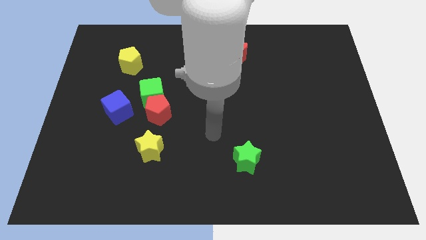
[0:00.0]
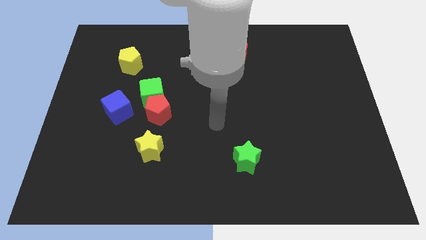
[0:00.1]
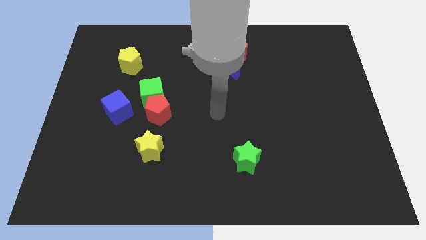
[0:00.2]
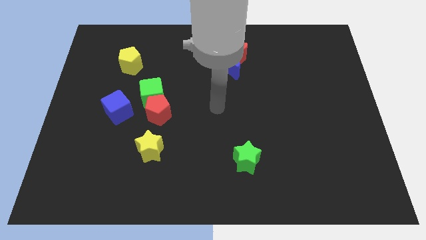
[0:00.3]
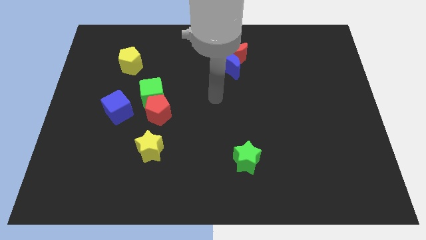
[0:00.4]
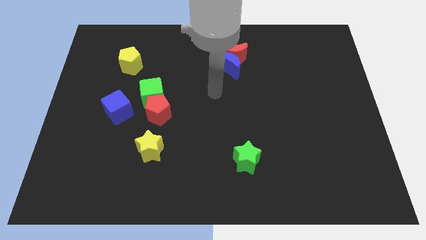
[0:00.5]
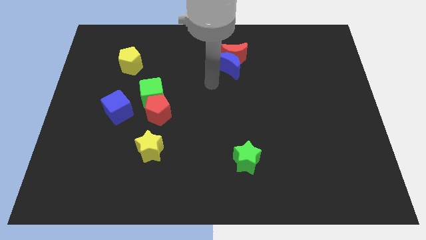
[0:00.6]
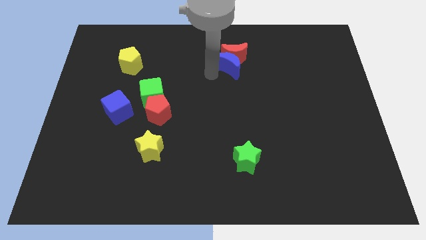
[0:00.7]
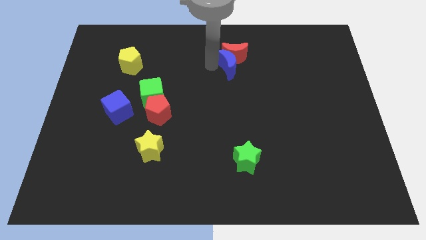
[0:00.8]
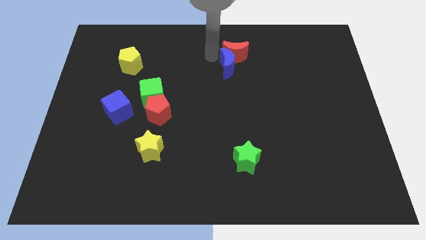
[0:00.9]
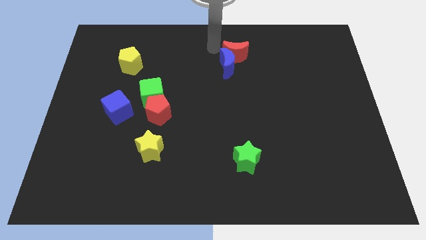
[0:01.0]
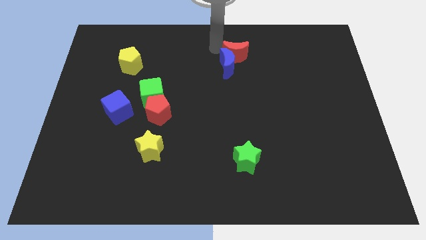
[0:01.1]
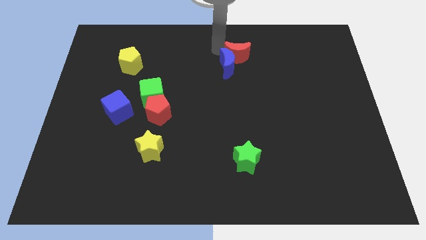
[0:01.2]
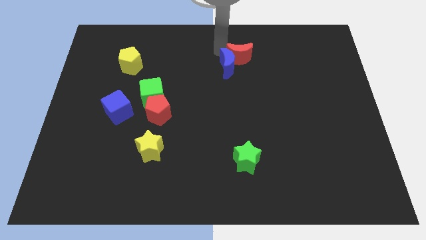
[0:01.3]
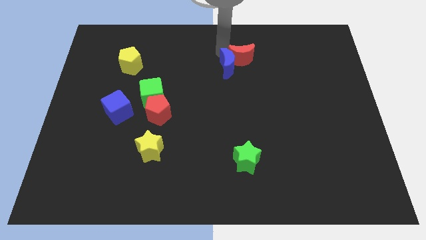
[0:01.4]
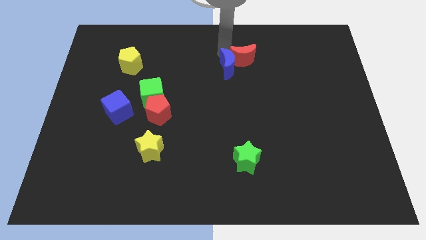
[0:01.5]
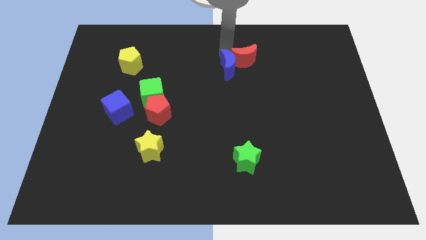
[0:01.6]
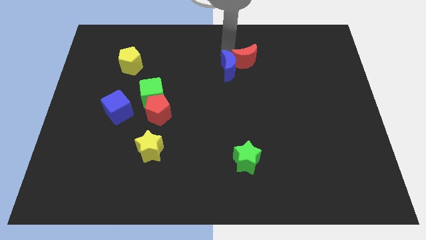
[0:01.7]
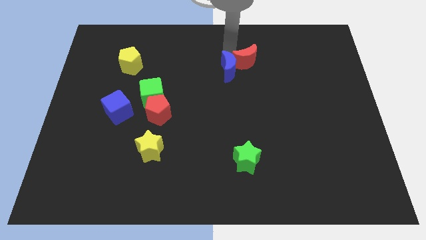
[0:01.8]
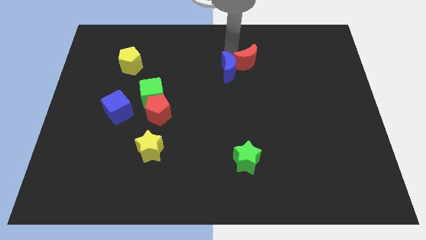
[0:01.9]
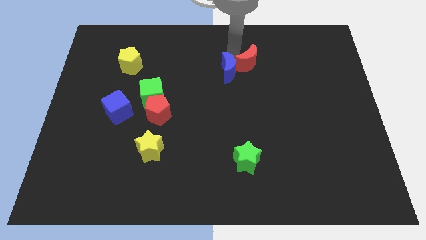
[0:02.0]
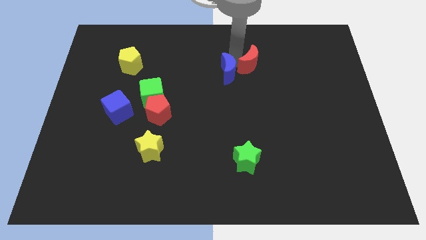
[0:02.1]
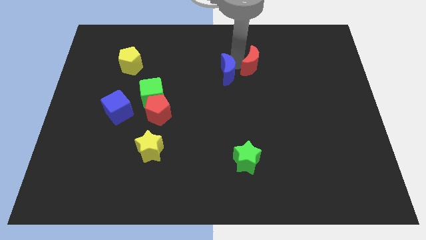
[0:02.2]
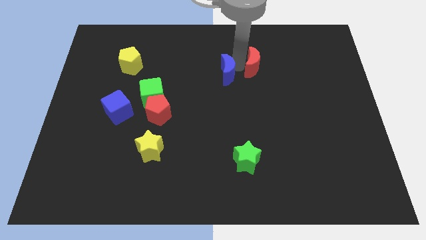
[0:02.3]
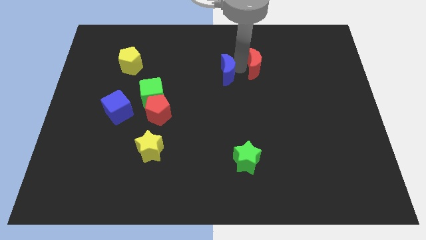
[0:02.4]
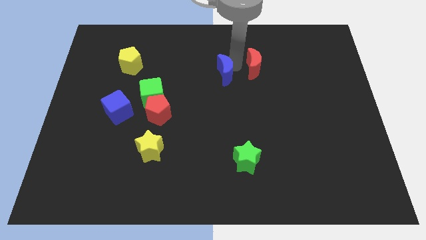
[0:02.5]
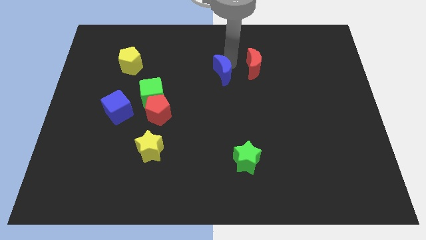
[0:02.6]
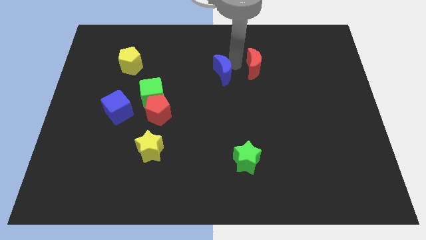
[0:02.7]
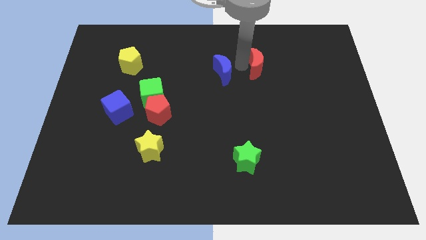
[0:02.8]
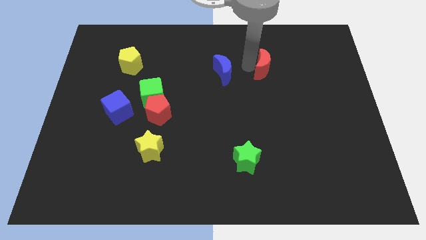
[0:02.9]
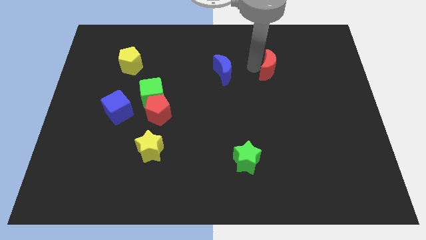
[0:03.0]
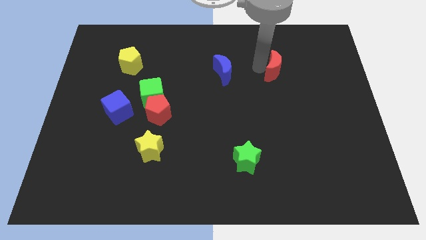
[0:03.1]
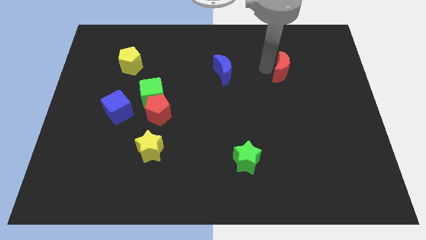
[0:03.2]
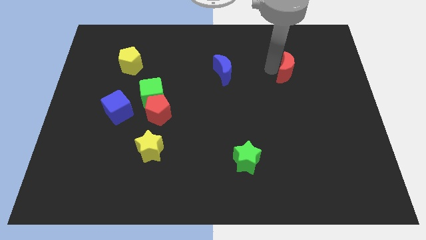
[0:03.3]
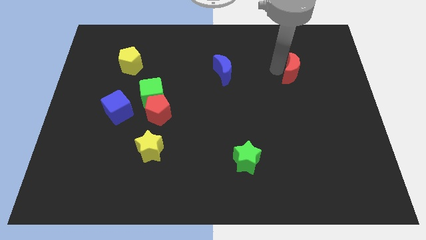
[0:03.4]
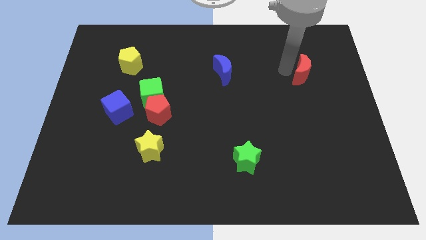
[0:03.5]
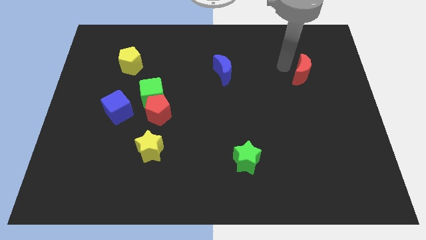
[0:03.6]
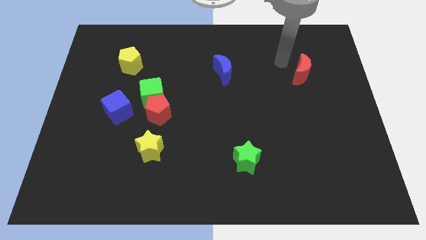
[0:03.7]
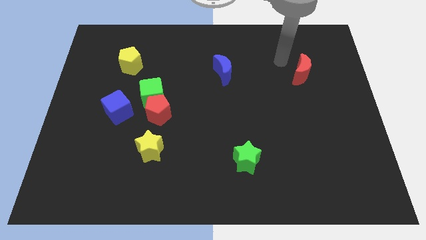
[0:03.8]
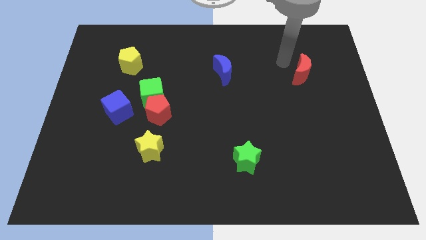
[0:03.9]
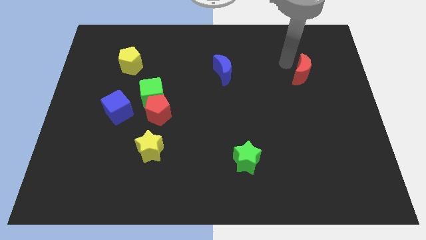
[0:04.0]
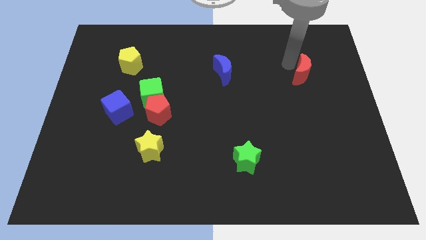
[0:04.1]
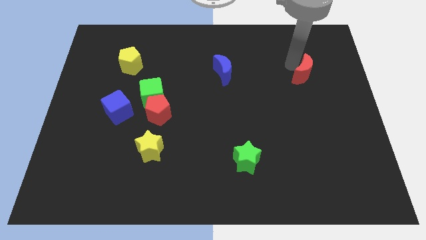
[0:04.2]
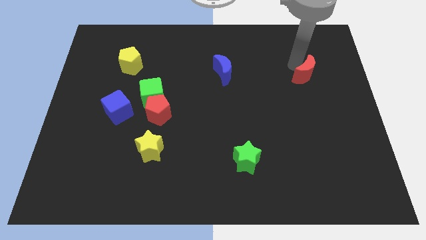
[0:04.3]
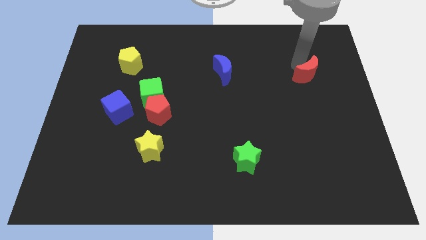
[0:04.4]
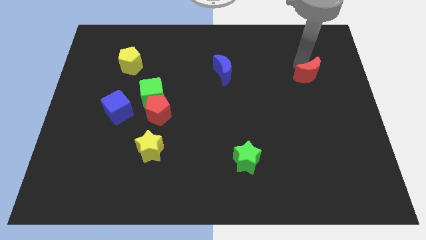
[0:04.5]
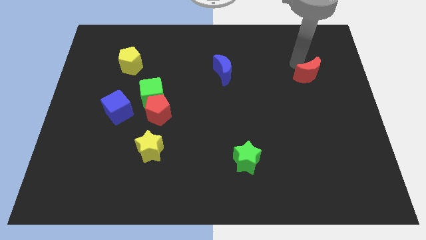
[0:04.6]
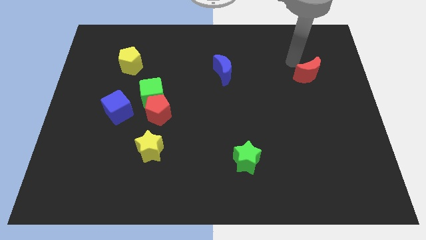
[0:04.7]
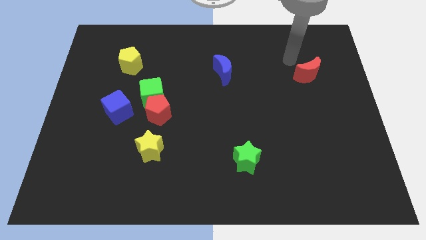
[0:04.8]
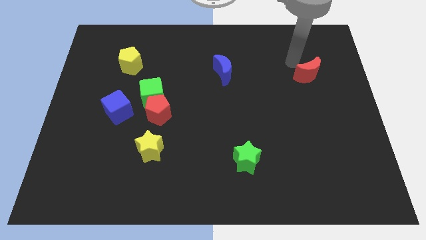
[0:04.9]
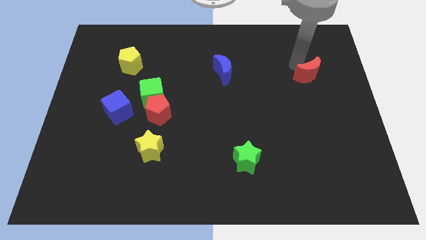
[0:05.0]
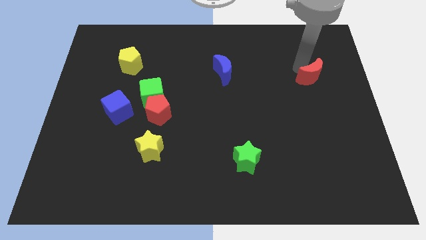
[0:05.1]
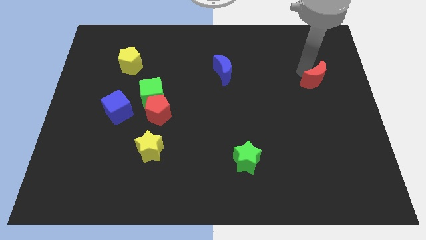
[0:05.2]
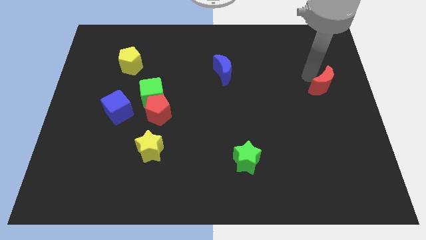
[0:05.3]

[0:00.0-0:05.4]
put the red moon to the right side

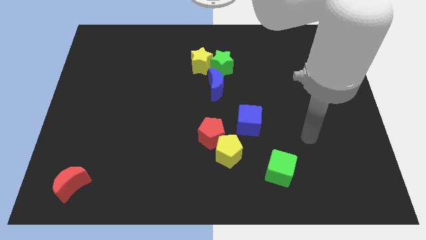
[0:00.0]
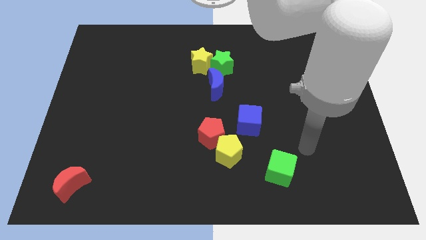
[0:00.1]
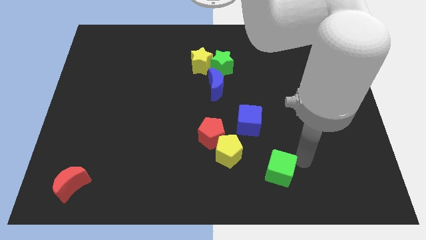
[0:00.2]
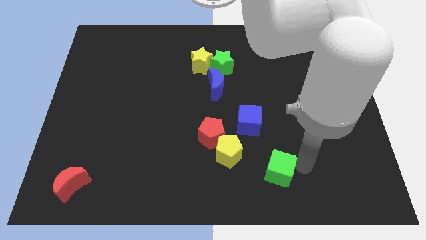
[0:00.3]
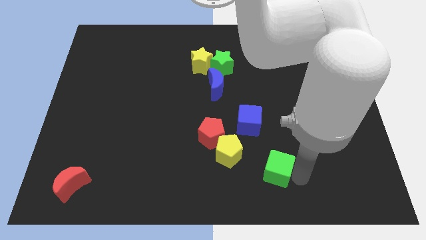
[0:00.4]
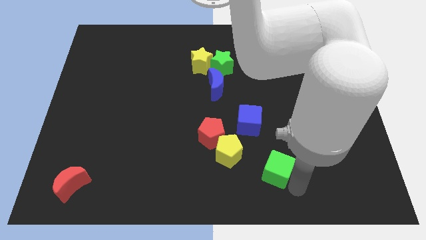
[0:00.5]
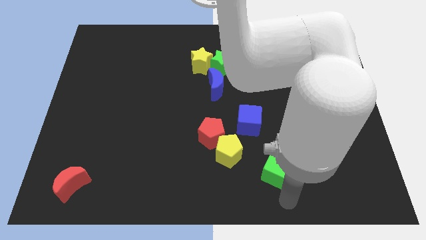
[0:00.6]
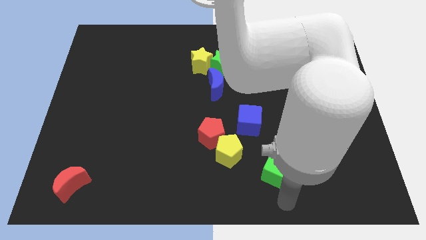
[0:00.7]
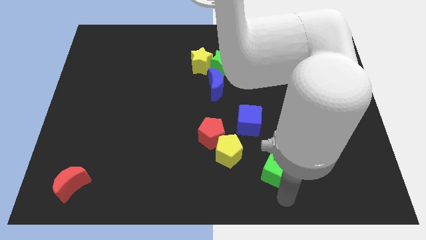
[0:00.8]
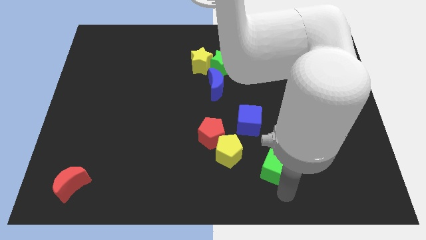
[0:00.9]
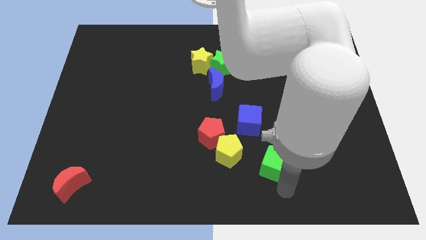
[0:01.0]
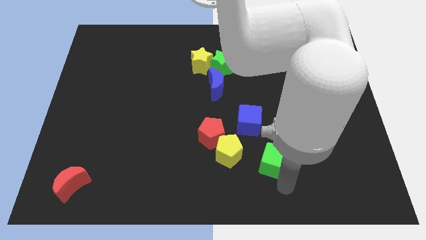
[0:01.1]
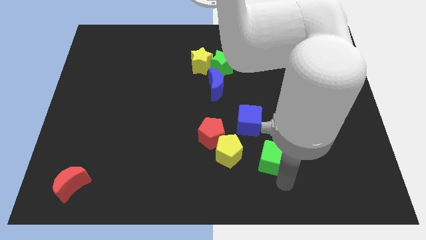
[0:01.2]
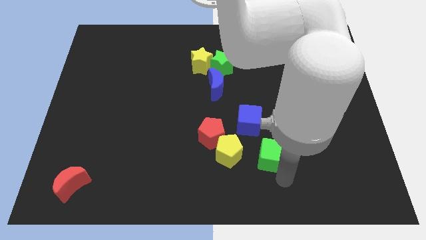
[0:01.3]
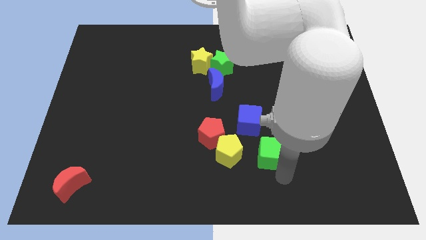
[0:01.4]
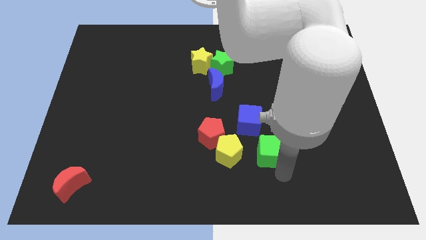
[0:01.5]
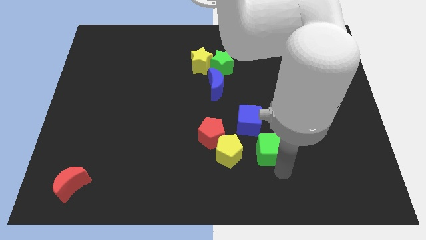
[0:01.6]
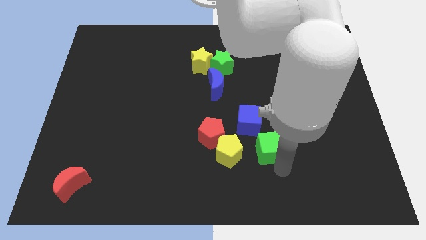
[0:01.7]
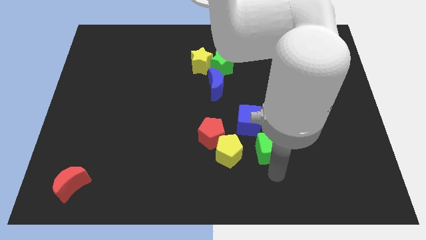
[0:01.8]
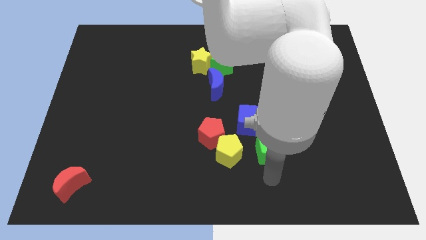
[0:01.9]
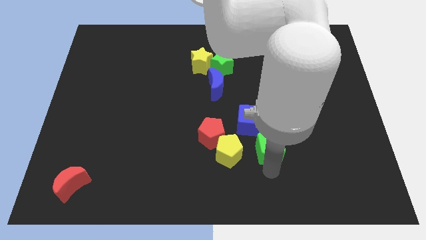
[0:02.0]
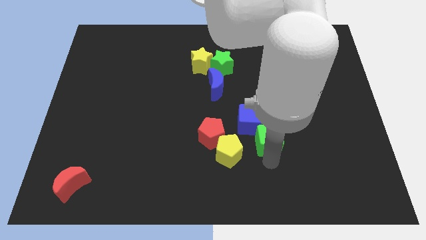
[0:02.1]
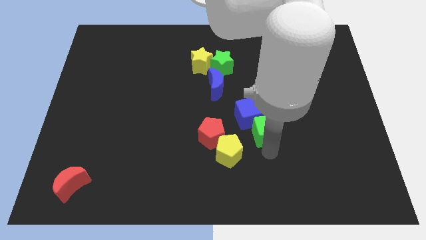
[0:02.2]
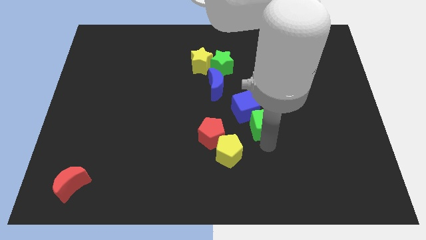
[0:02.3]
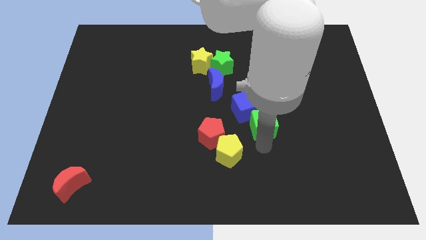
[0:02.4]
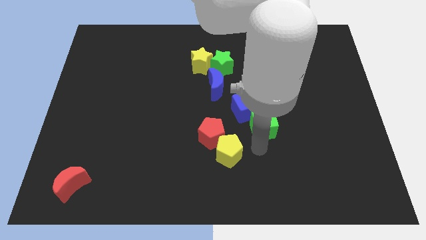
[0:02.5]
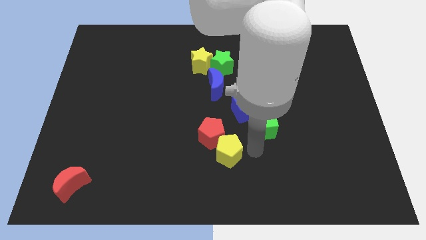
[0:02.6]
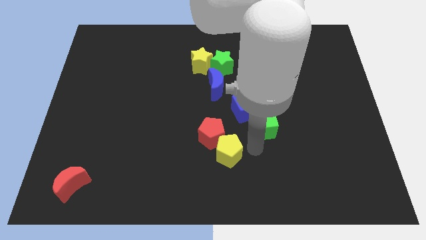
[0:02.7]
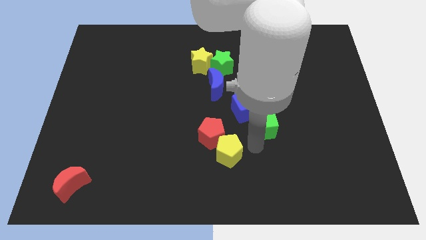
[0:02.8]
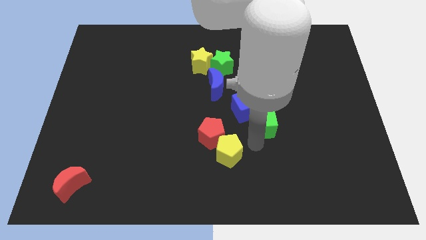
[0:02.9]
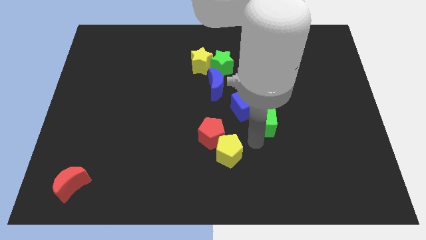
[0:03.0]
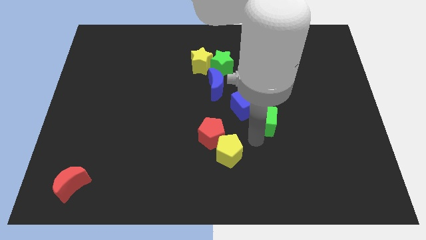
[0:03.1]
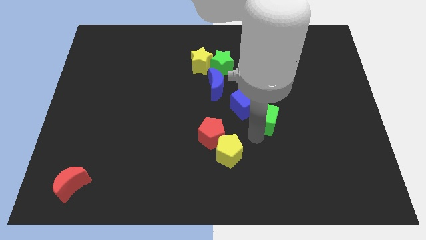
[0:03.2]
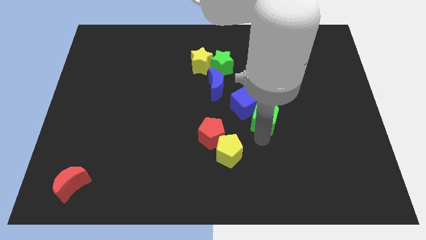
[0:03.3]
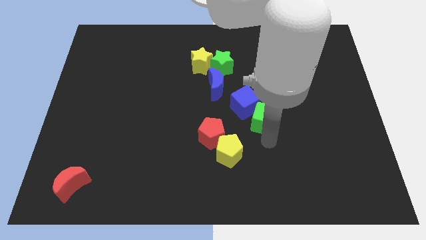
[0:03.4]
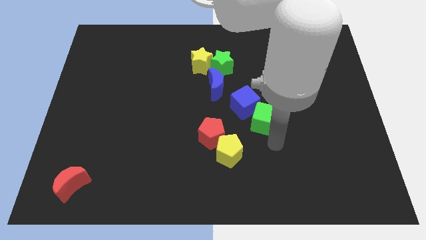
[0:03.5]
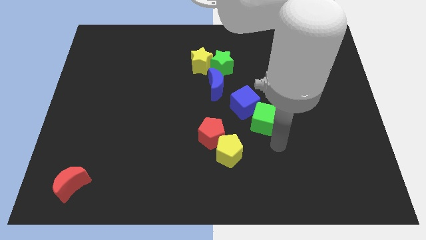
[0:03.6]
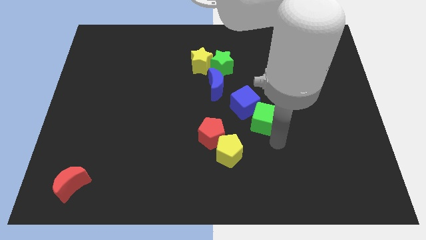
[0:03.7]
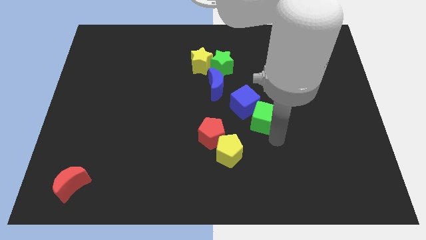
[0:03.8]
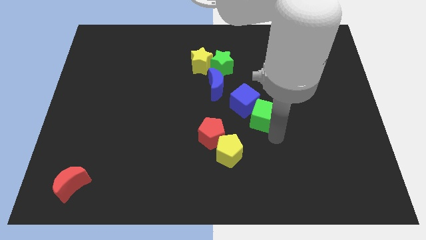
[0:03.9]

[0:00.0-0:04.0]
push the green cube to the middle of the board
